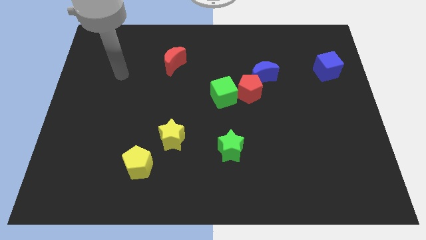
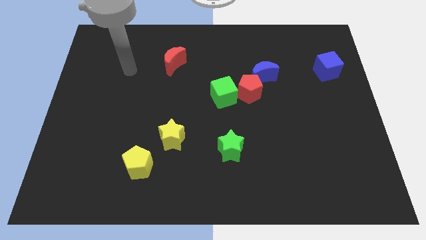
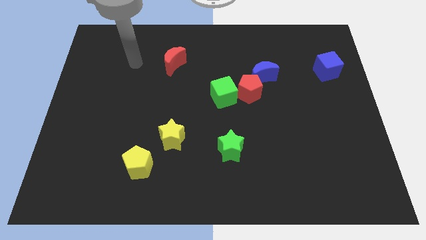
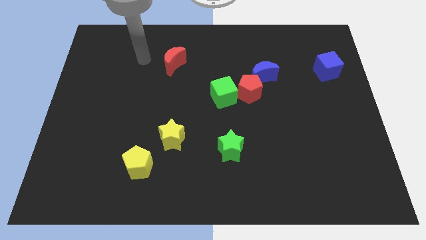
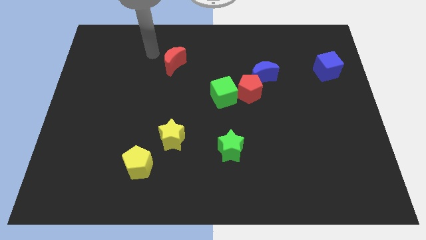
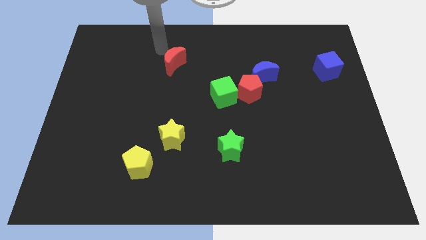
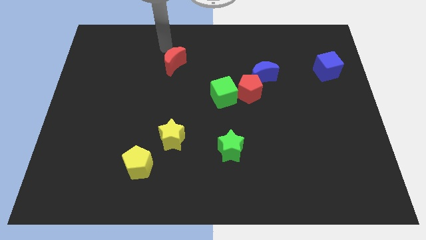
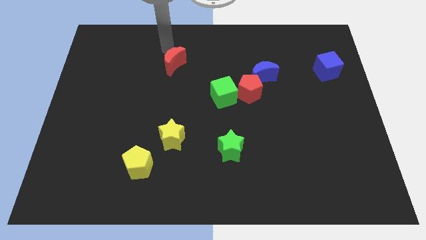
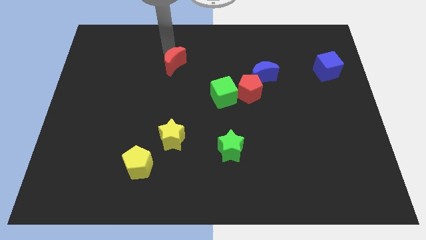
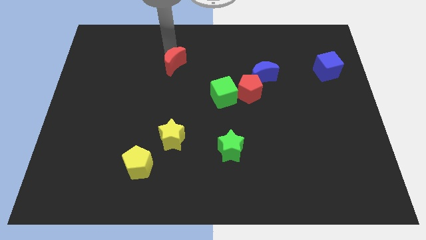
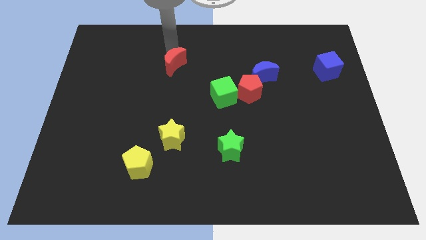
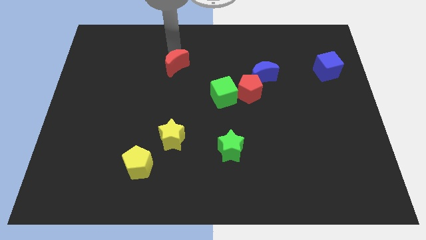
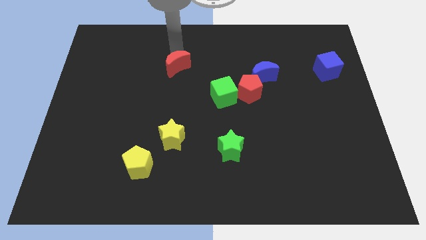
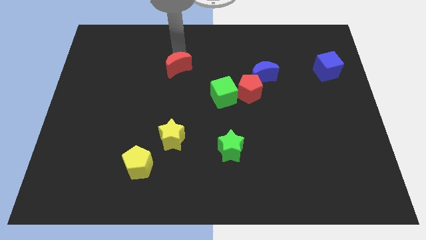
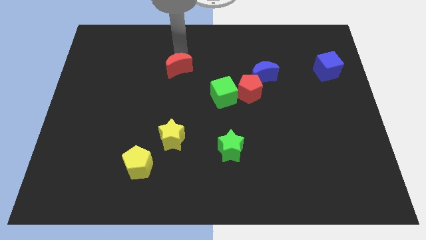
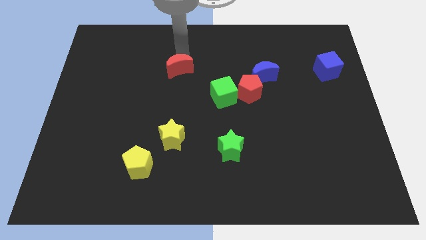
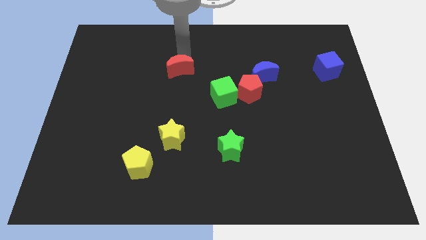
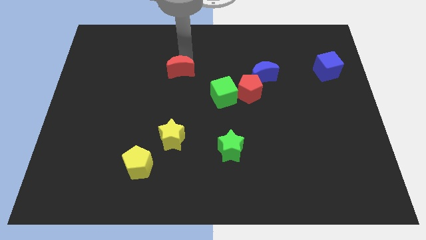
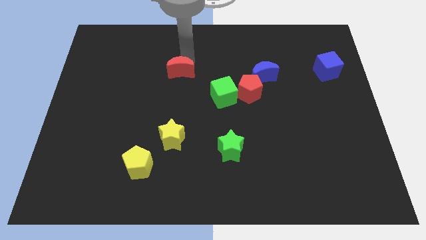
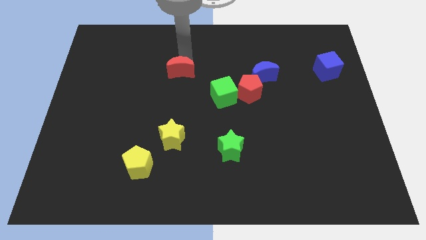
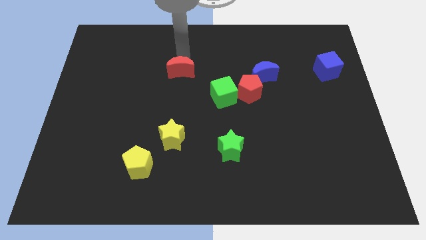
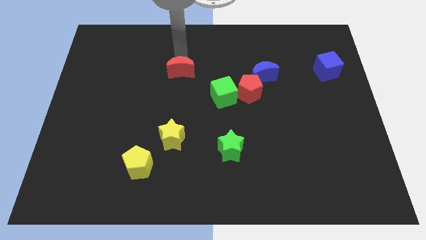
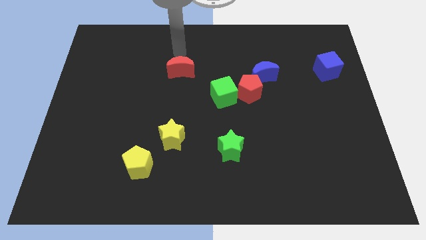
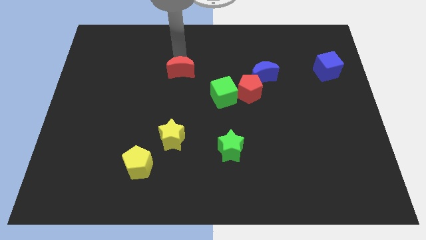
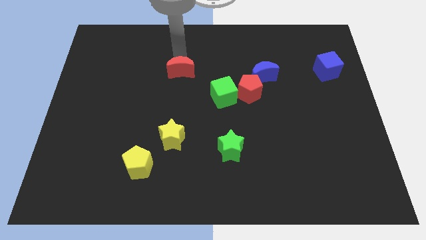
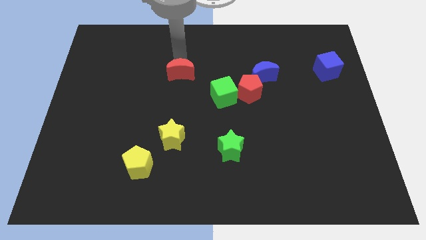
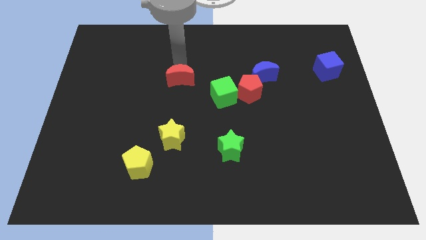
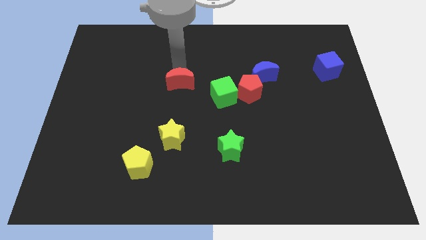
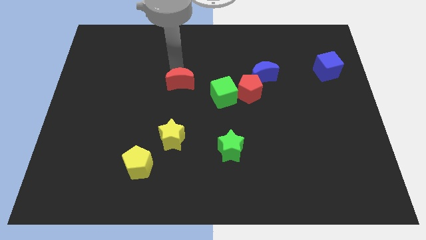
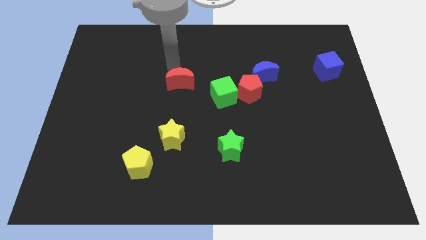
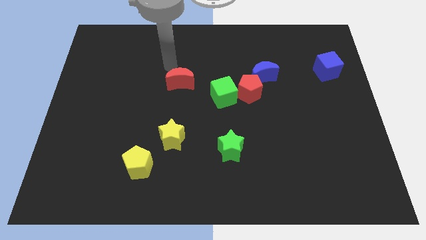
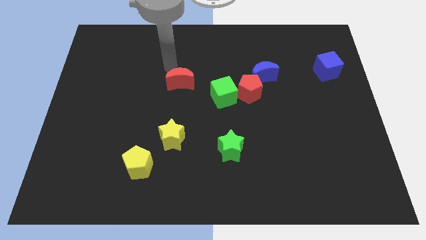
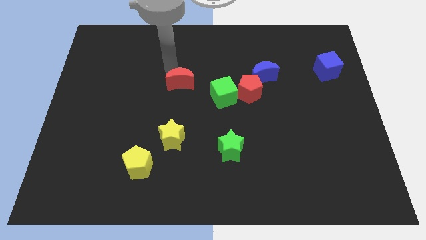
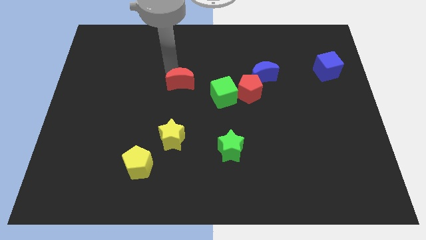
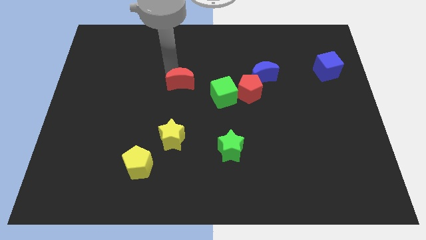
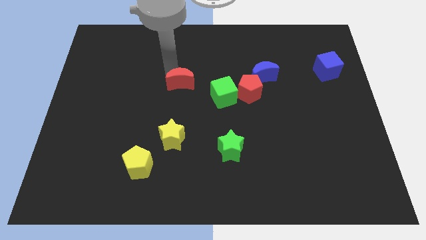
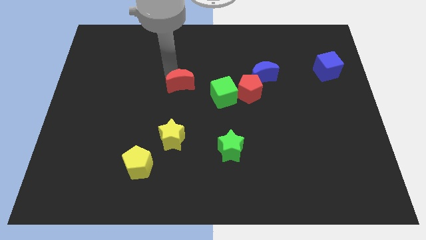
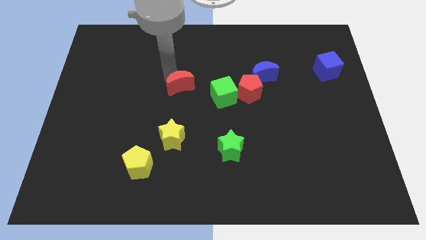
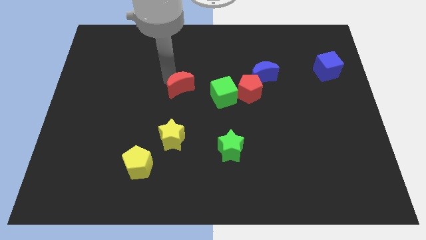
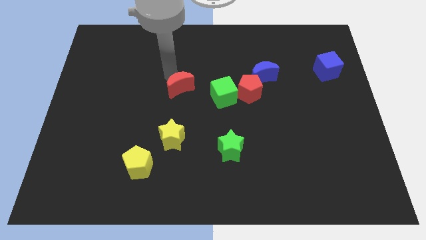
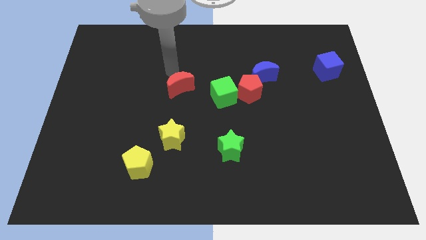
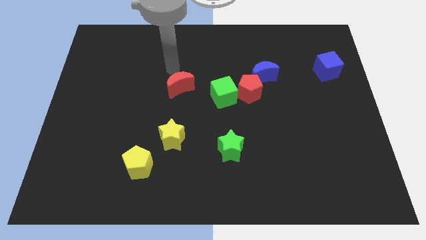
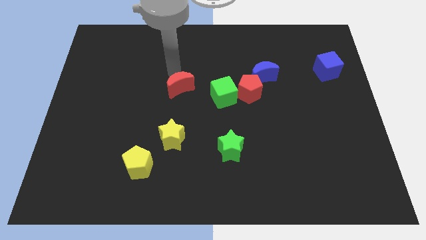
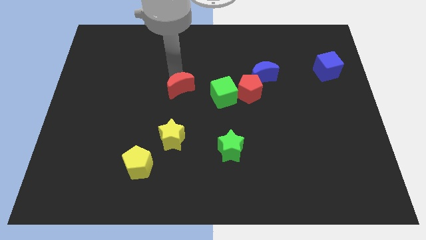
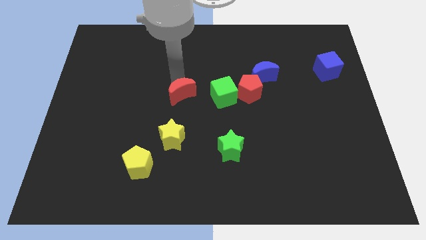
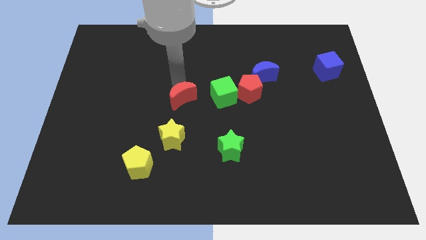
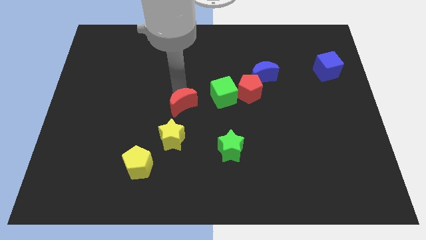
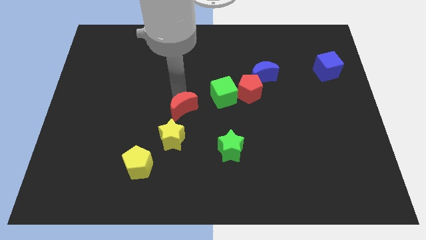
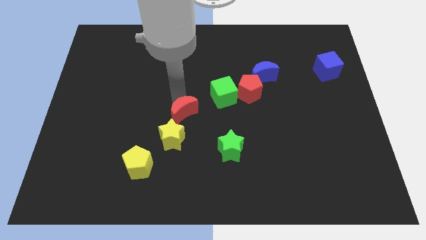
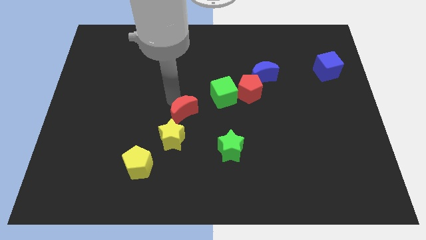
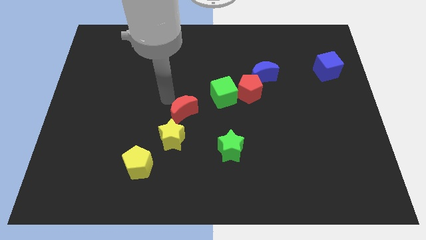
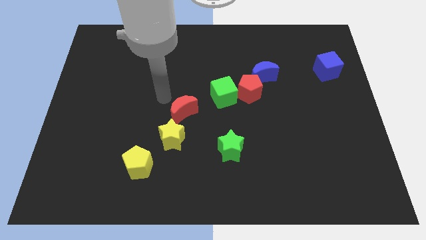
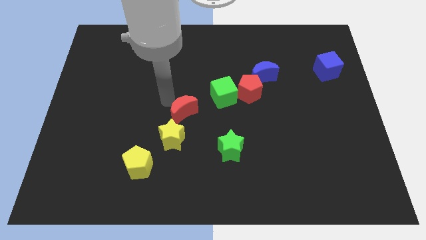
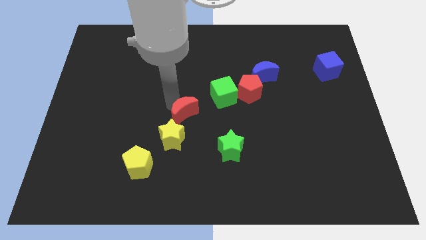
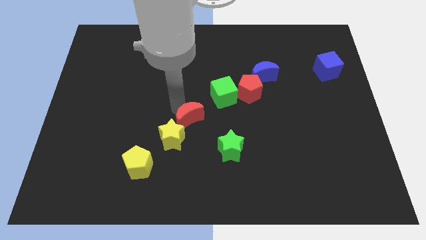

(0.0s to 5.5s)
put the red moon to the top left of the green star

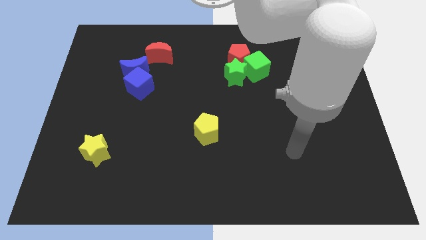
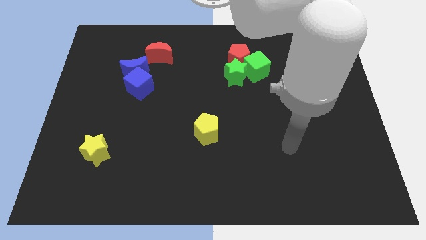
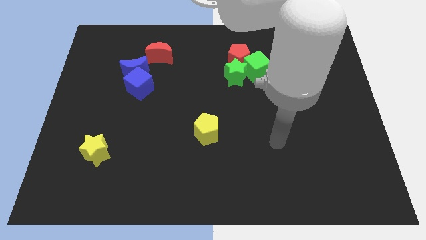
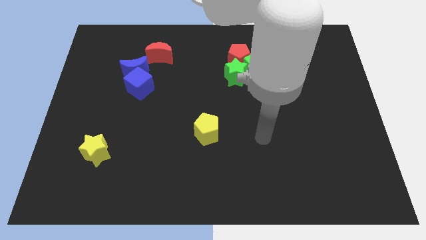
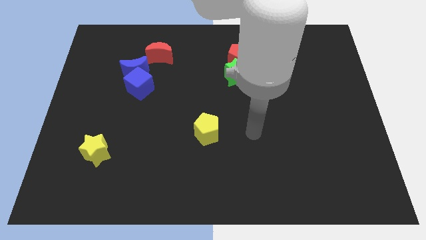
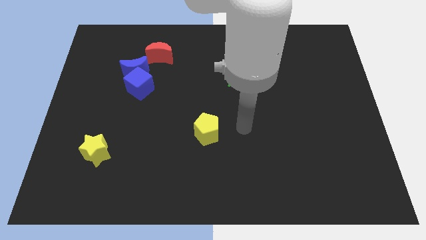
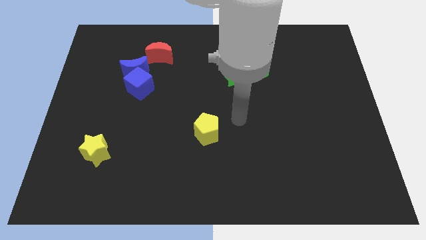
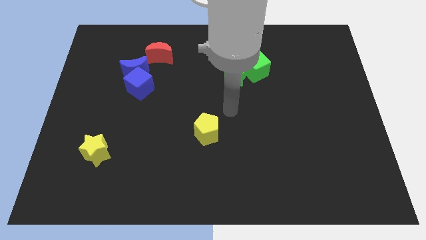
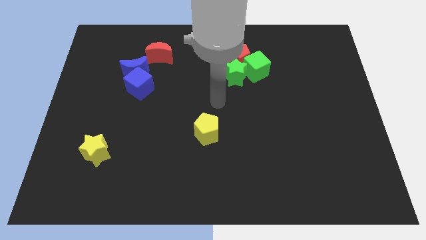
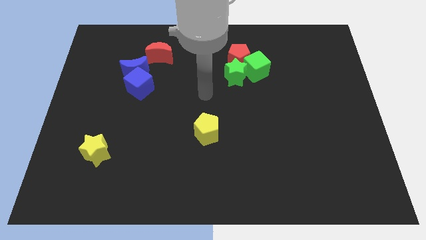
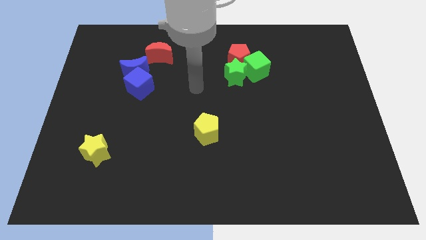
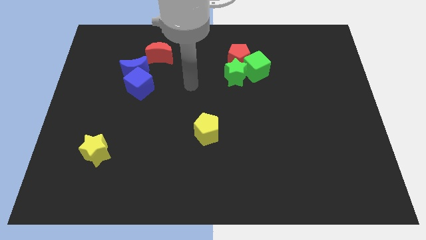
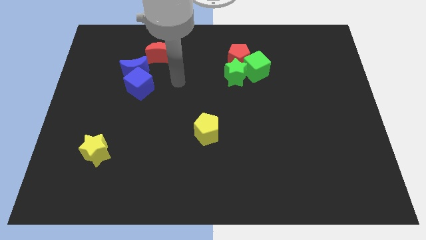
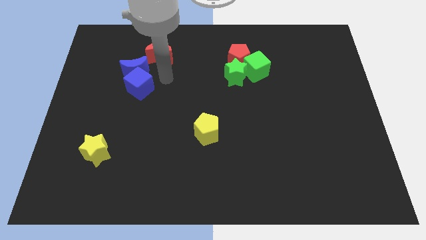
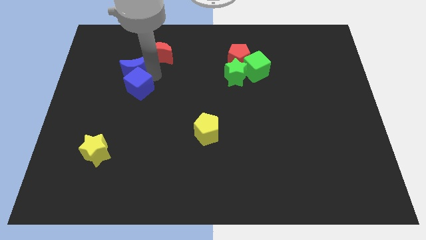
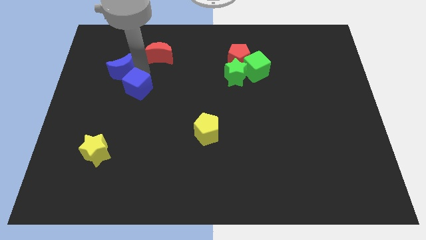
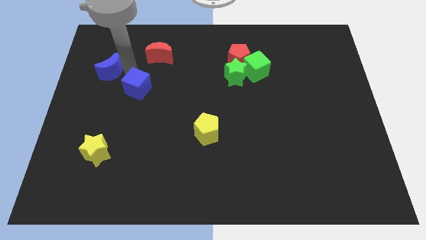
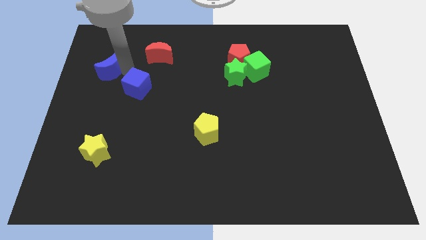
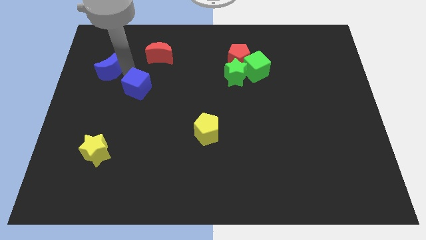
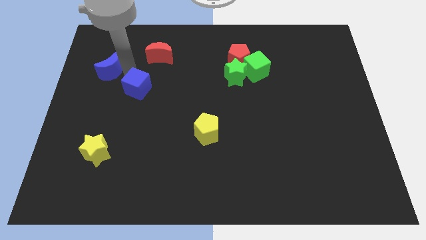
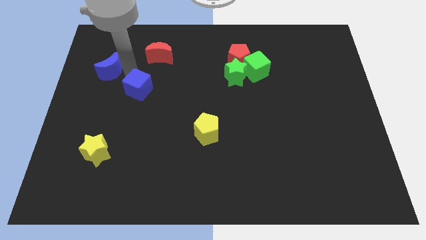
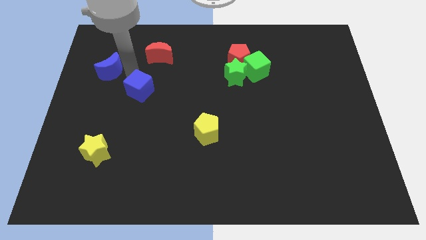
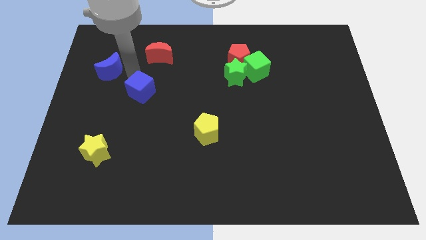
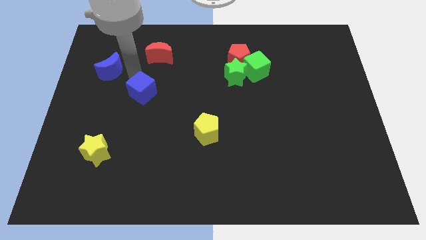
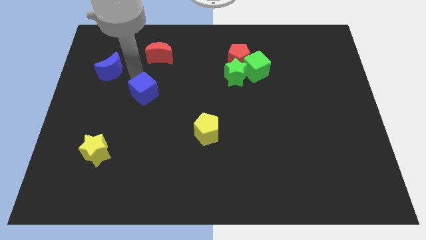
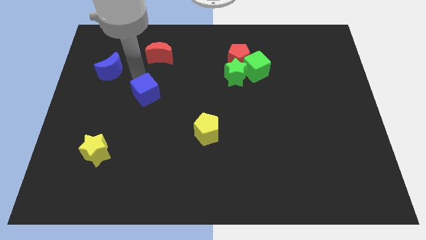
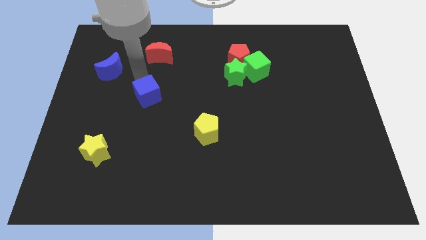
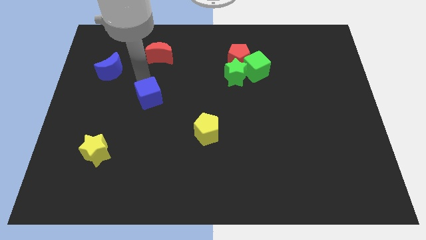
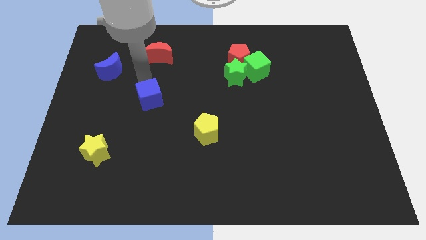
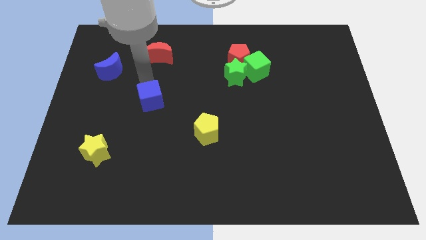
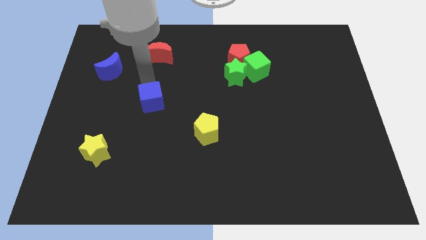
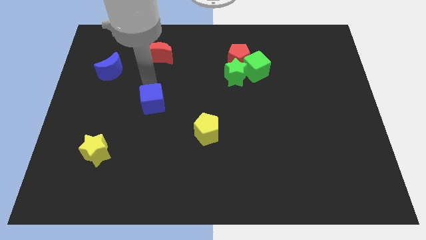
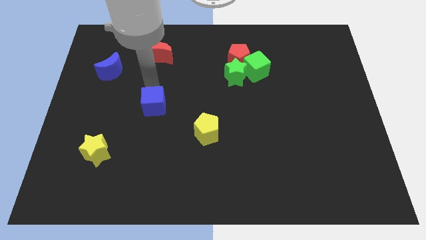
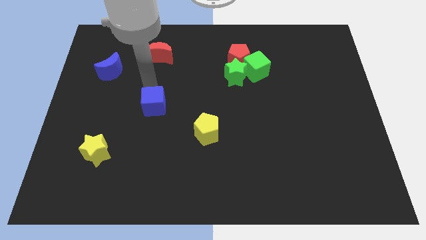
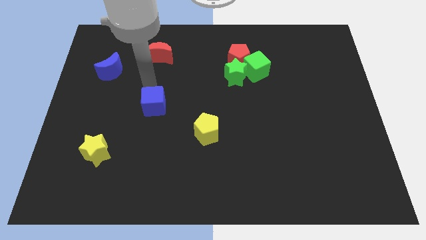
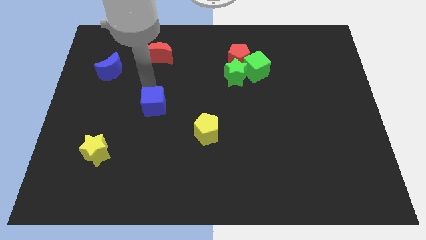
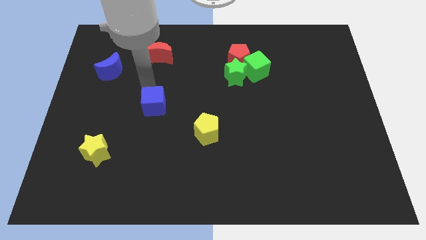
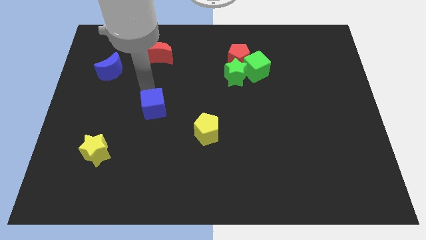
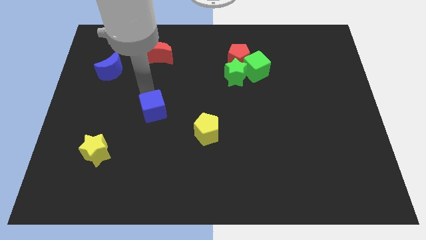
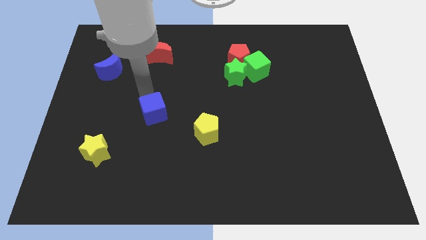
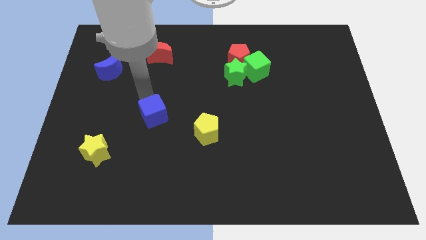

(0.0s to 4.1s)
slide the blue cube to the left of the yellow pentagon
